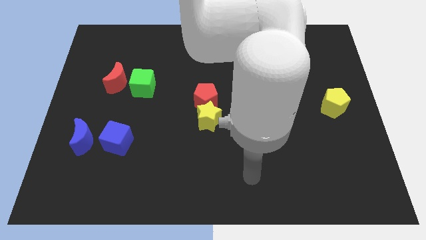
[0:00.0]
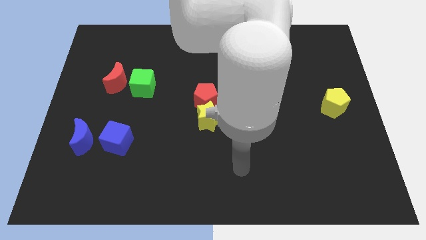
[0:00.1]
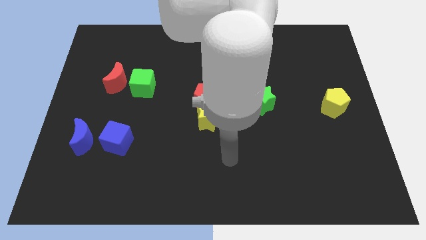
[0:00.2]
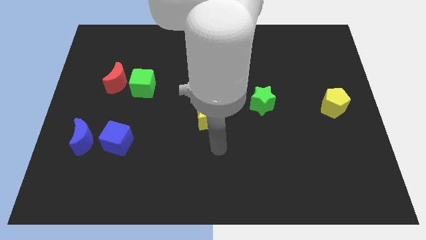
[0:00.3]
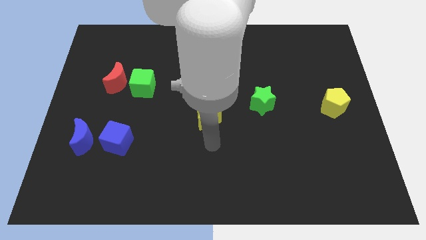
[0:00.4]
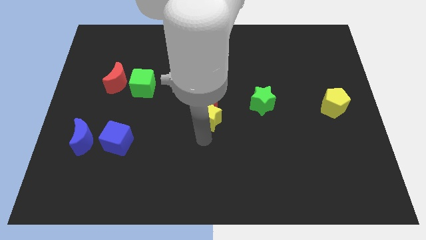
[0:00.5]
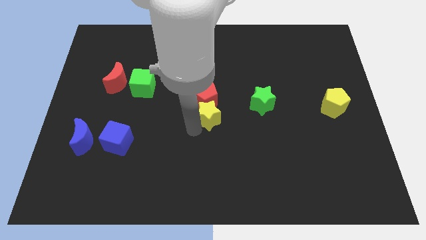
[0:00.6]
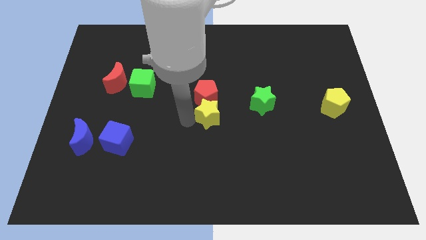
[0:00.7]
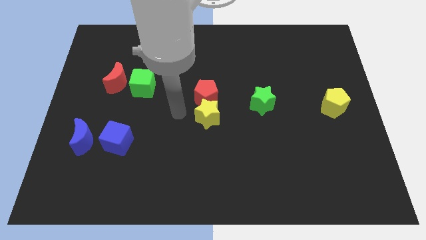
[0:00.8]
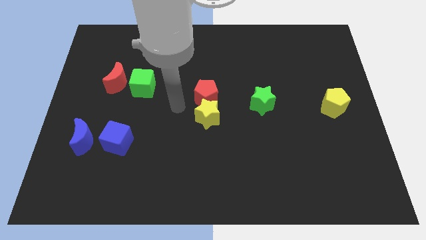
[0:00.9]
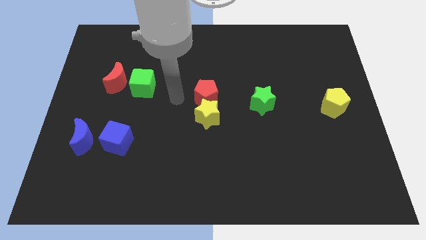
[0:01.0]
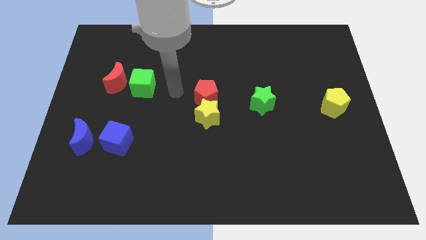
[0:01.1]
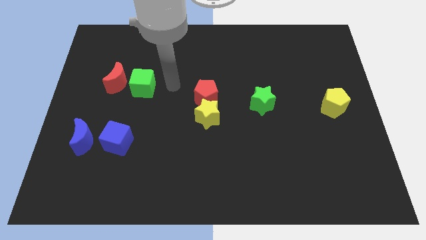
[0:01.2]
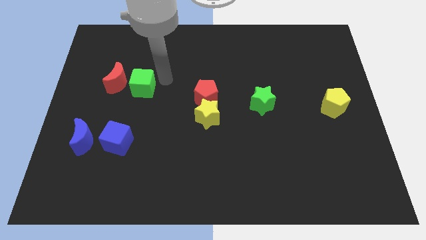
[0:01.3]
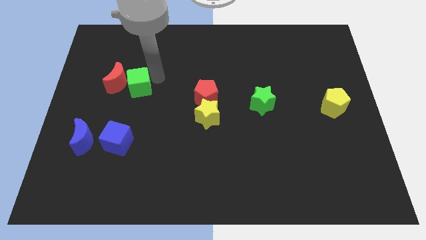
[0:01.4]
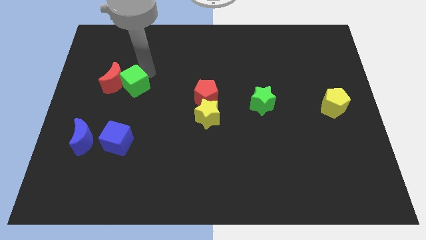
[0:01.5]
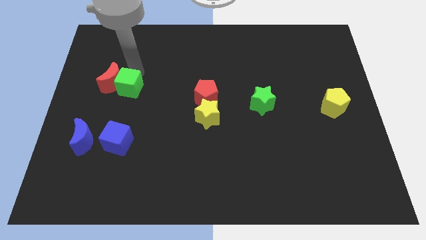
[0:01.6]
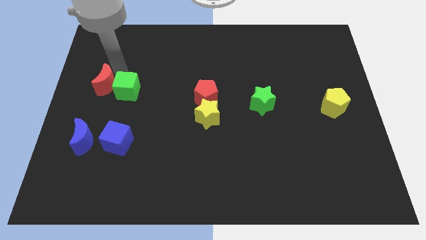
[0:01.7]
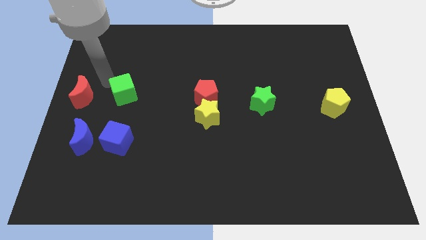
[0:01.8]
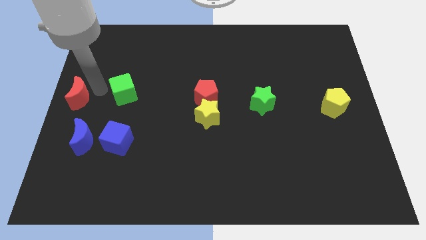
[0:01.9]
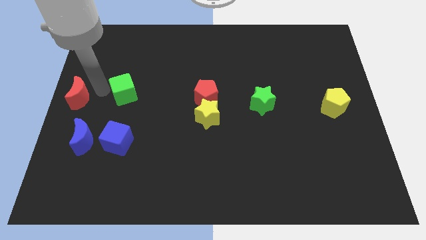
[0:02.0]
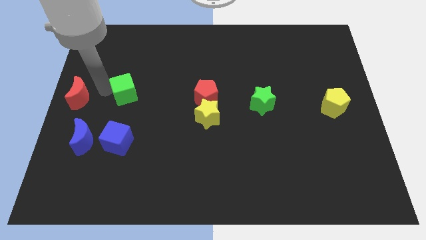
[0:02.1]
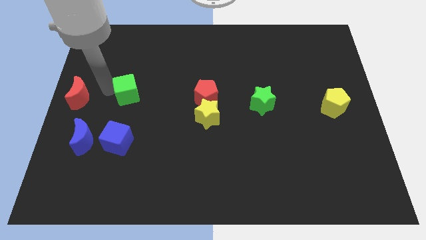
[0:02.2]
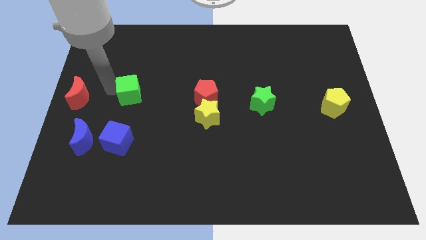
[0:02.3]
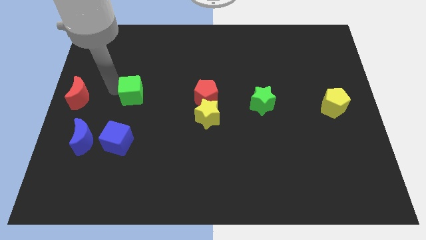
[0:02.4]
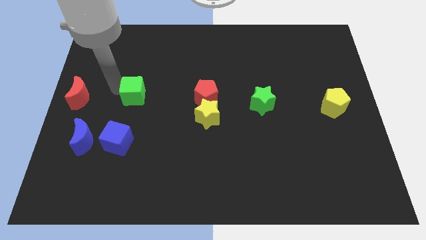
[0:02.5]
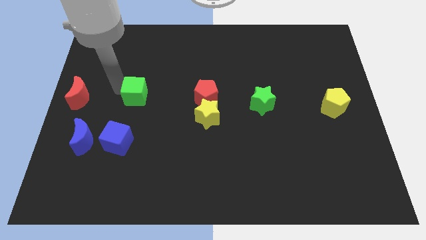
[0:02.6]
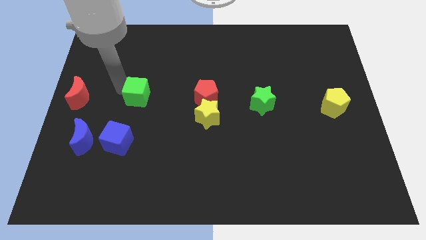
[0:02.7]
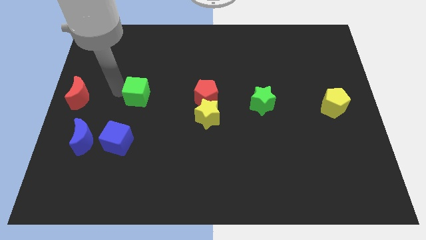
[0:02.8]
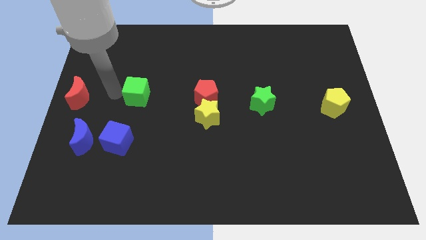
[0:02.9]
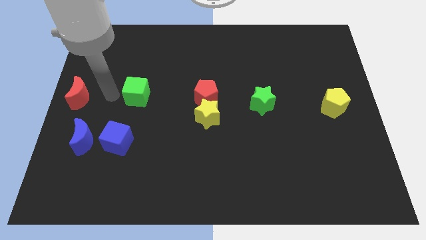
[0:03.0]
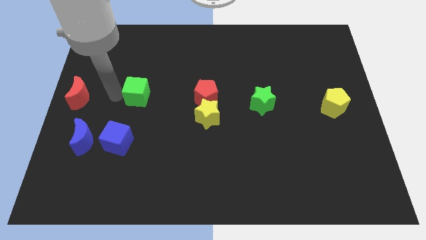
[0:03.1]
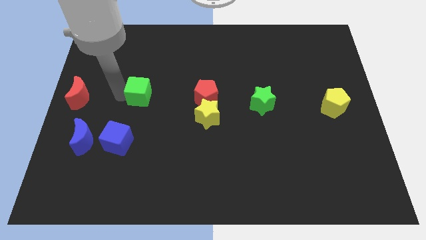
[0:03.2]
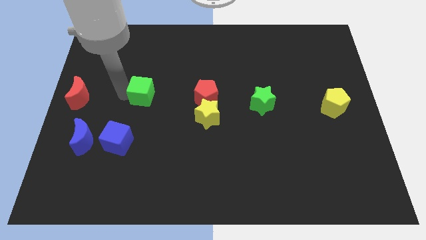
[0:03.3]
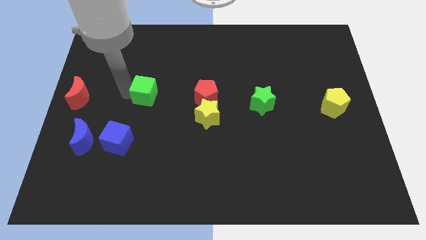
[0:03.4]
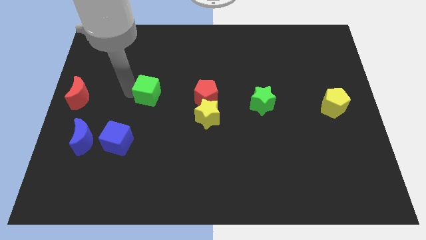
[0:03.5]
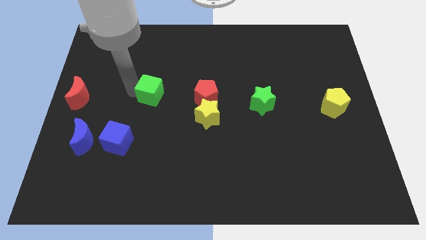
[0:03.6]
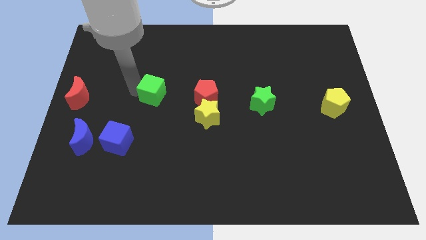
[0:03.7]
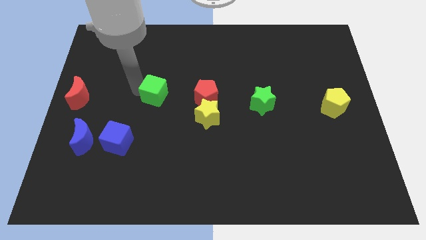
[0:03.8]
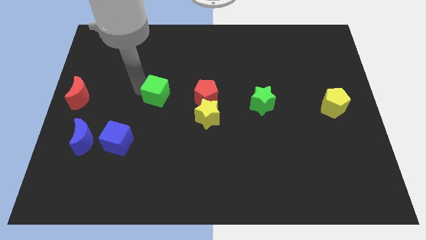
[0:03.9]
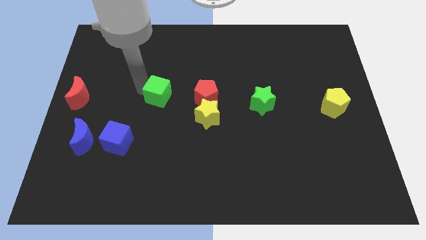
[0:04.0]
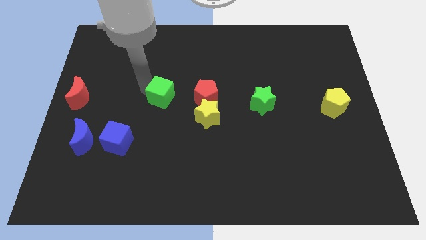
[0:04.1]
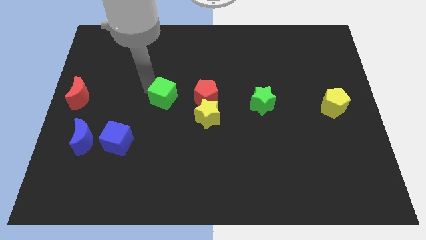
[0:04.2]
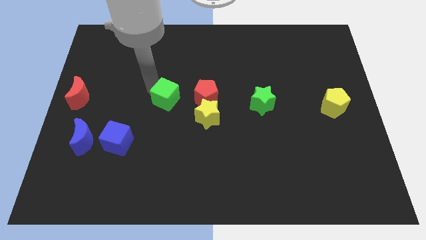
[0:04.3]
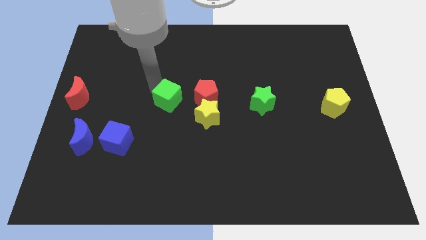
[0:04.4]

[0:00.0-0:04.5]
slide the green cube downwards and right diagonally somewhat

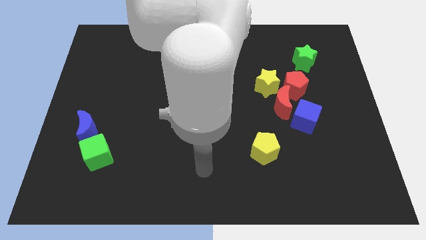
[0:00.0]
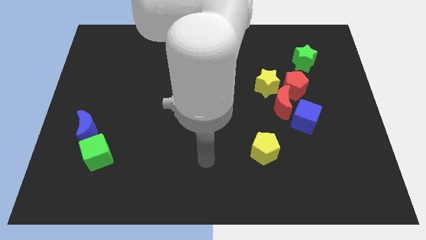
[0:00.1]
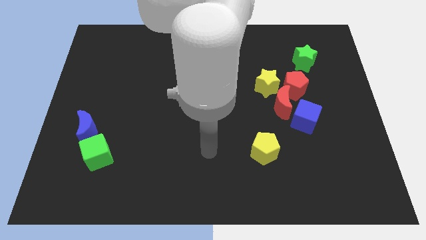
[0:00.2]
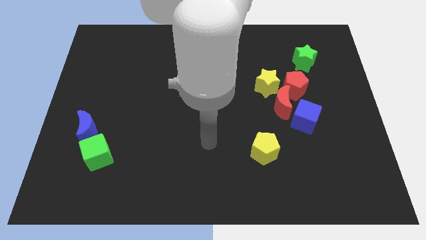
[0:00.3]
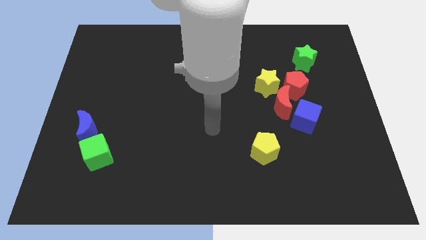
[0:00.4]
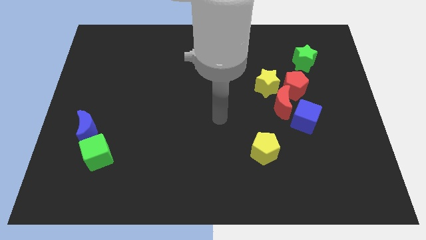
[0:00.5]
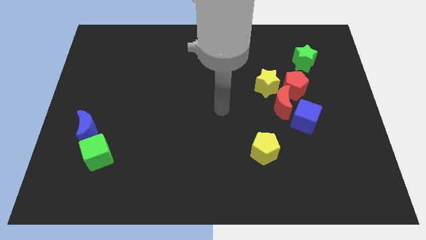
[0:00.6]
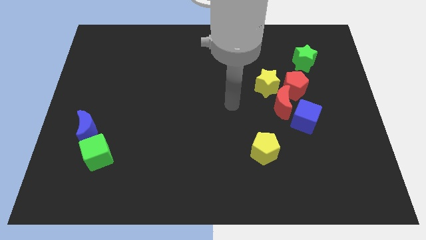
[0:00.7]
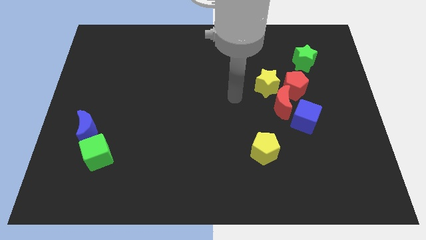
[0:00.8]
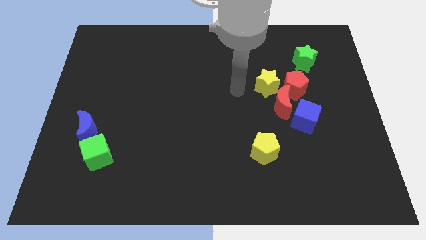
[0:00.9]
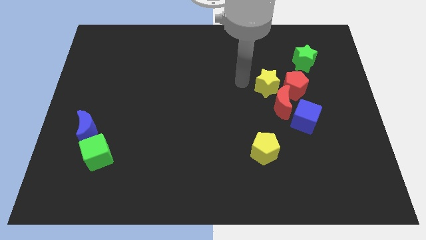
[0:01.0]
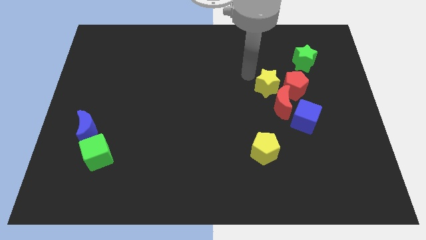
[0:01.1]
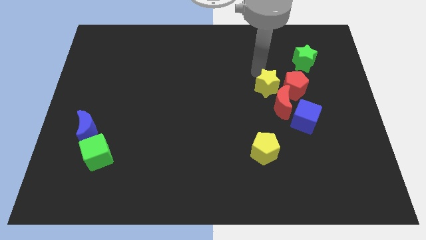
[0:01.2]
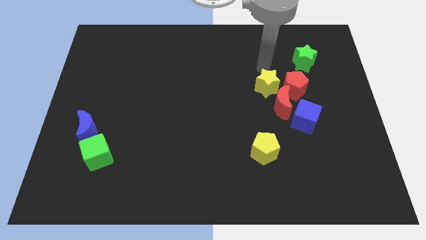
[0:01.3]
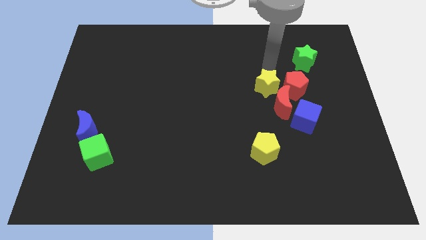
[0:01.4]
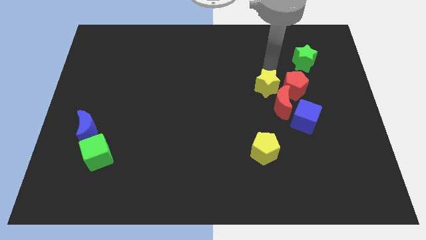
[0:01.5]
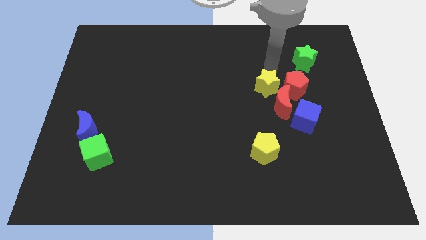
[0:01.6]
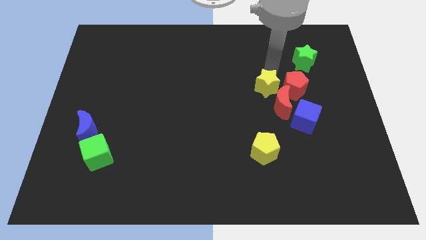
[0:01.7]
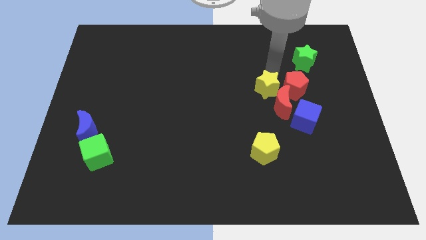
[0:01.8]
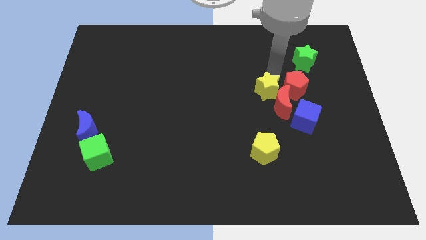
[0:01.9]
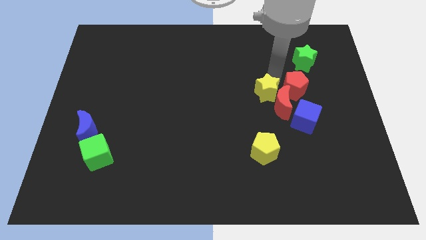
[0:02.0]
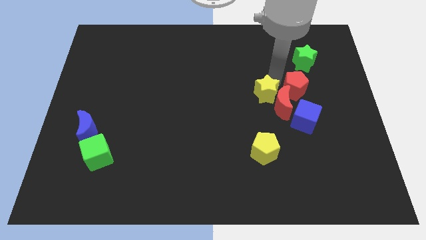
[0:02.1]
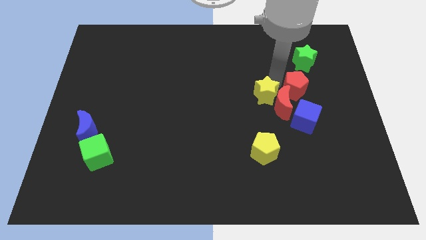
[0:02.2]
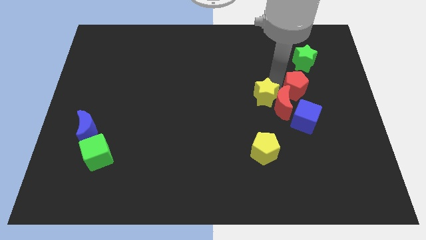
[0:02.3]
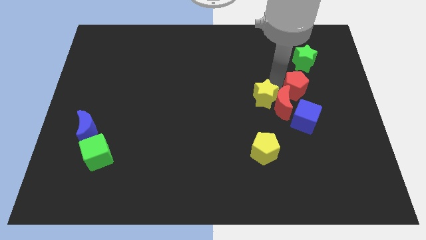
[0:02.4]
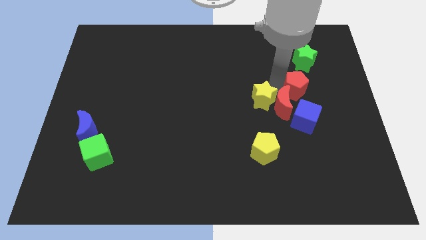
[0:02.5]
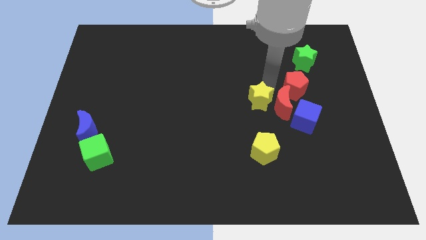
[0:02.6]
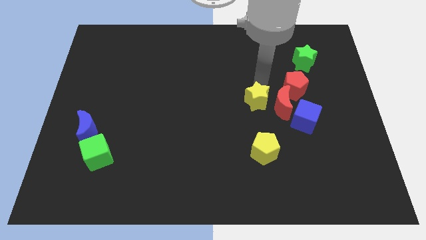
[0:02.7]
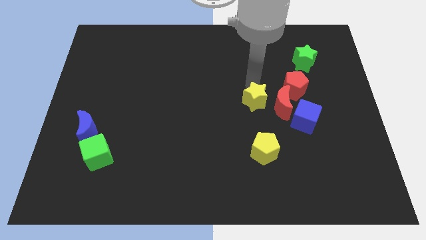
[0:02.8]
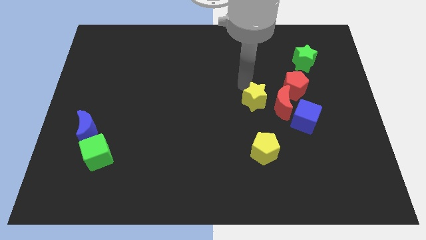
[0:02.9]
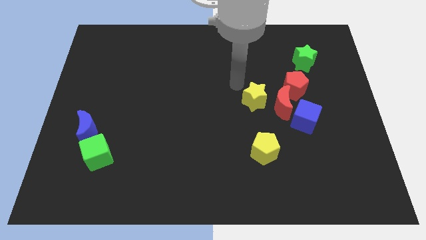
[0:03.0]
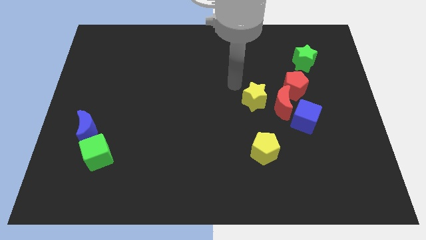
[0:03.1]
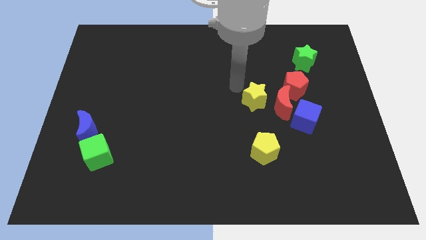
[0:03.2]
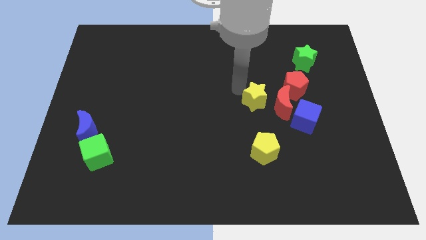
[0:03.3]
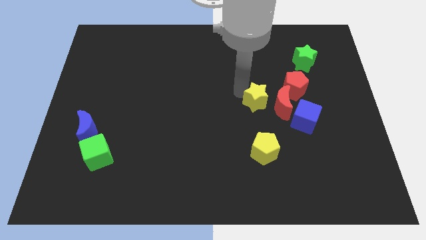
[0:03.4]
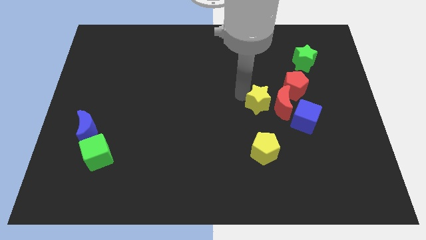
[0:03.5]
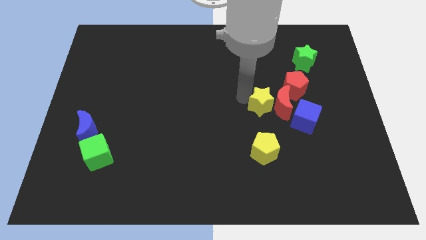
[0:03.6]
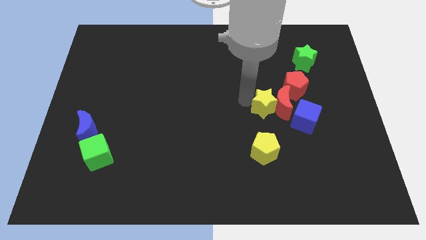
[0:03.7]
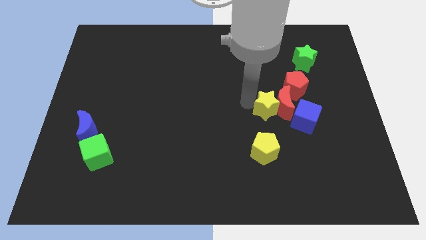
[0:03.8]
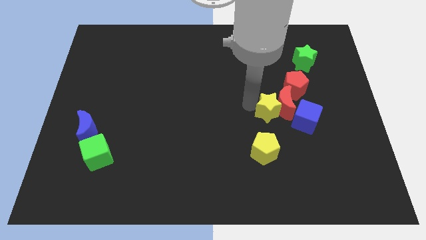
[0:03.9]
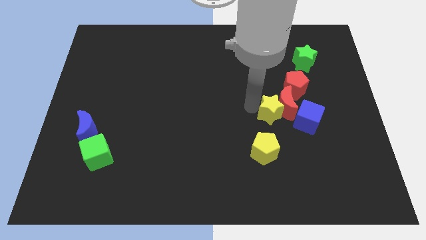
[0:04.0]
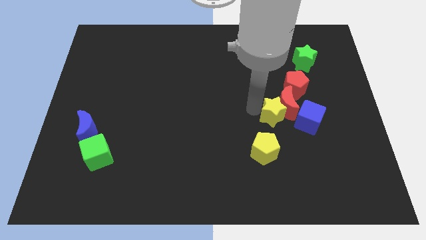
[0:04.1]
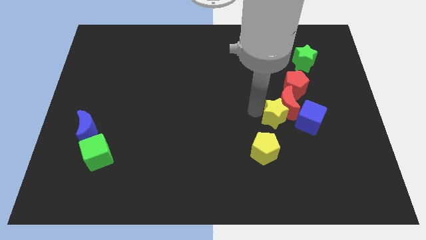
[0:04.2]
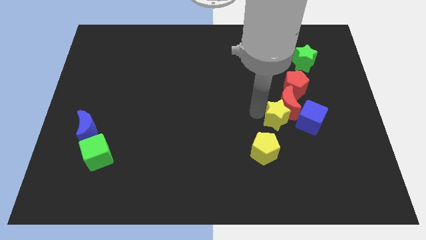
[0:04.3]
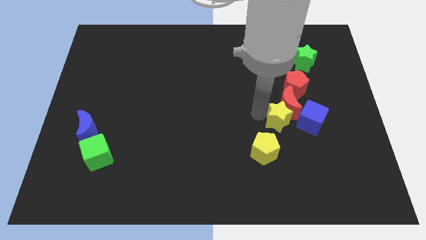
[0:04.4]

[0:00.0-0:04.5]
slide the yellow star downwards and to the right diagonally a bit
